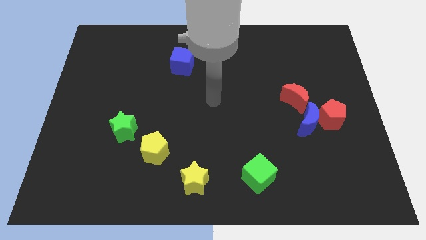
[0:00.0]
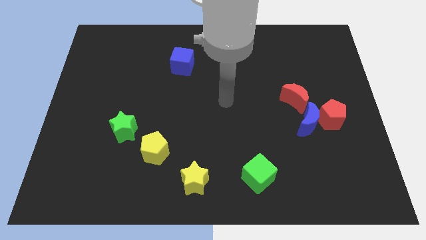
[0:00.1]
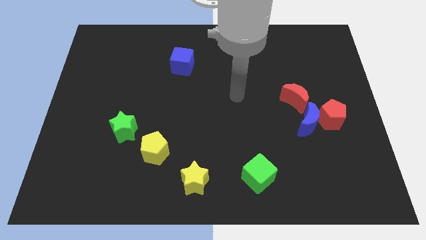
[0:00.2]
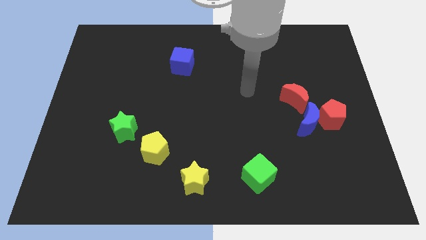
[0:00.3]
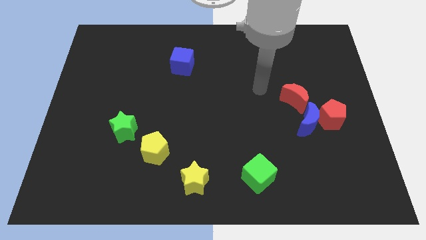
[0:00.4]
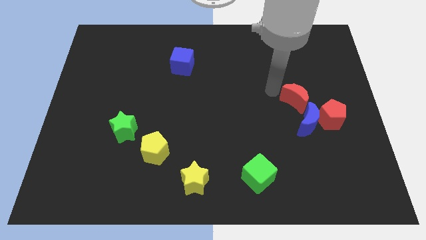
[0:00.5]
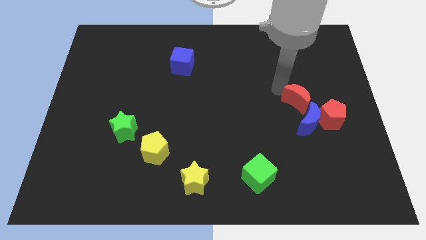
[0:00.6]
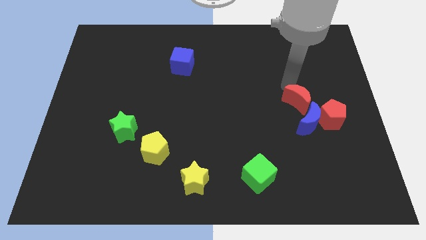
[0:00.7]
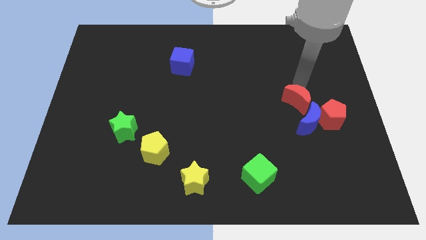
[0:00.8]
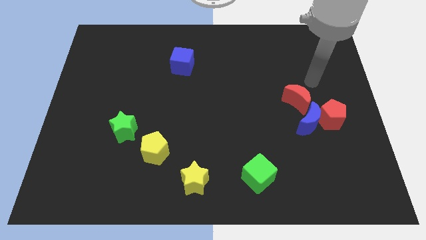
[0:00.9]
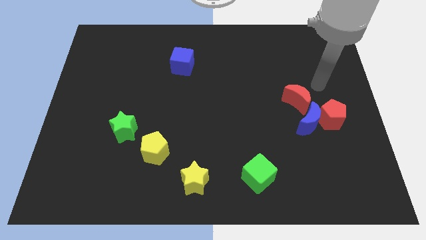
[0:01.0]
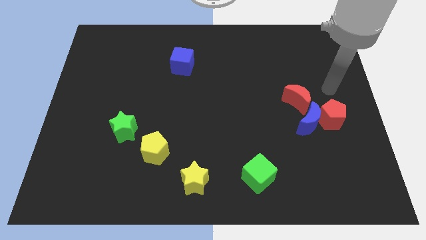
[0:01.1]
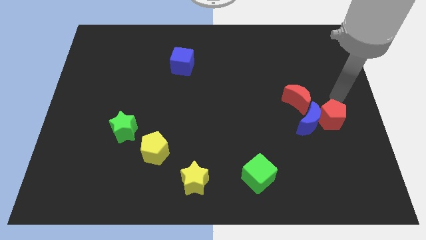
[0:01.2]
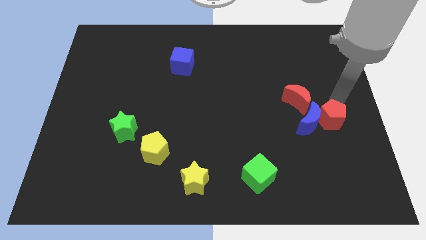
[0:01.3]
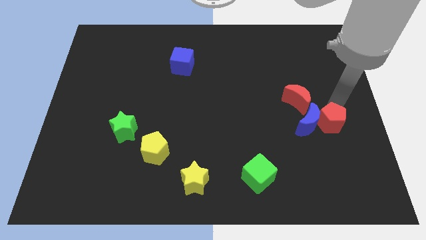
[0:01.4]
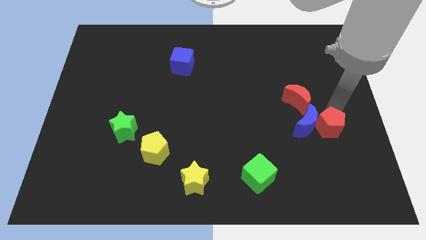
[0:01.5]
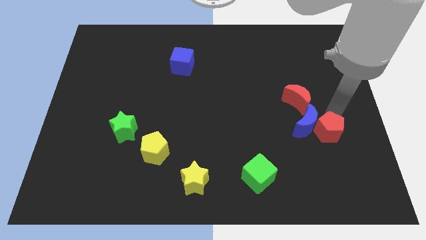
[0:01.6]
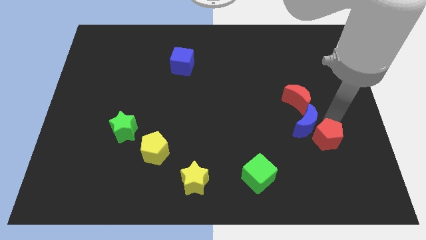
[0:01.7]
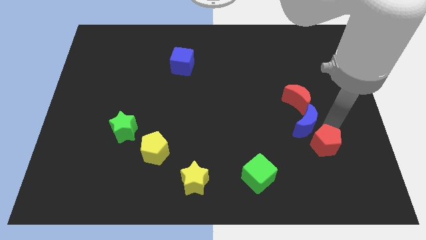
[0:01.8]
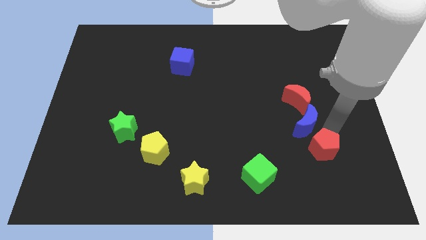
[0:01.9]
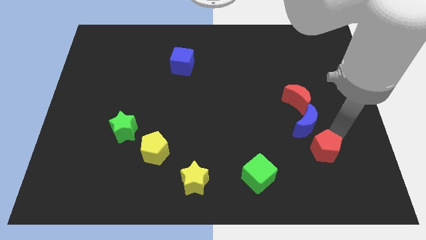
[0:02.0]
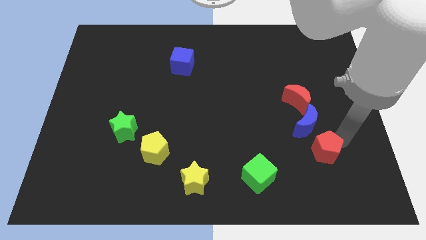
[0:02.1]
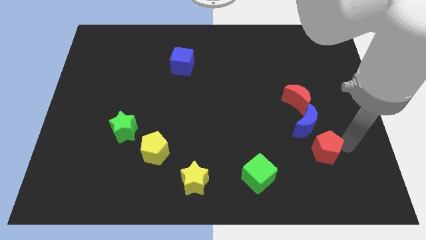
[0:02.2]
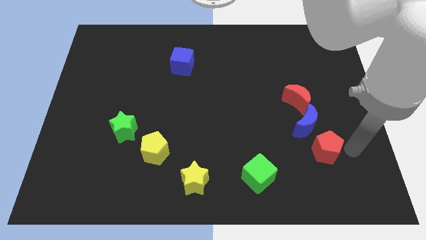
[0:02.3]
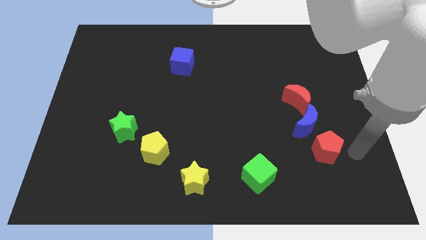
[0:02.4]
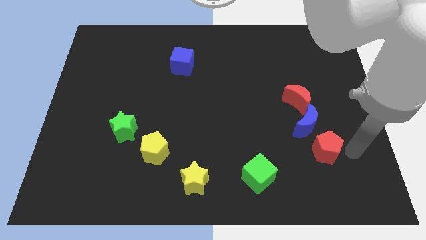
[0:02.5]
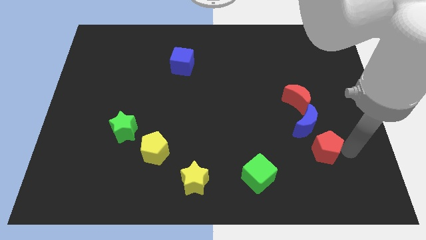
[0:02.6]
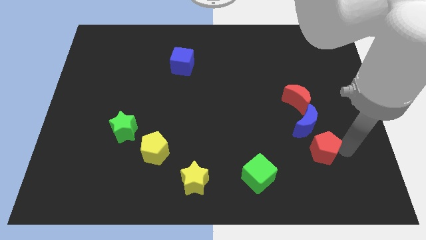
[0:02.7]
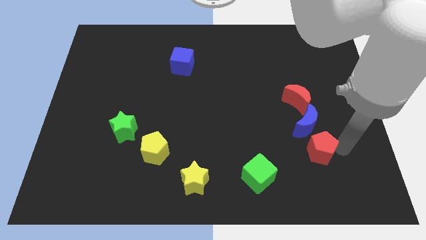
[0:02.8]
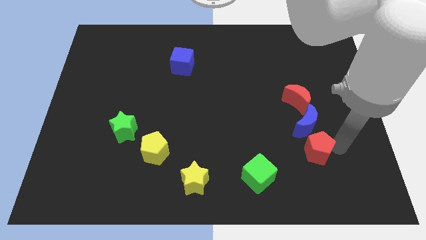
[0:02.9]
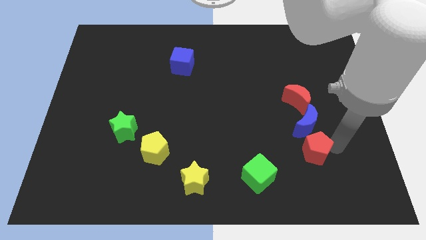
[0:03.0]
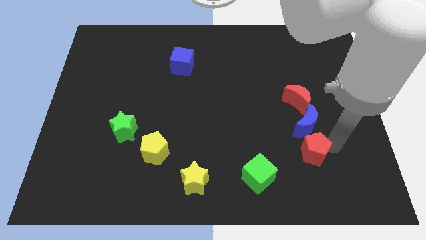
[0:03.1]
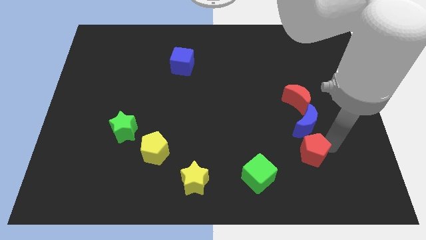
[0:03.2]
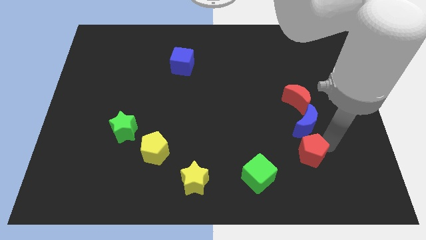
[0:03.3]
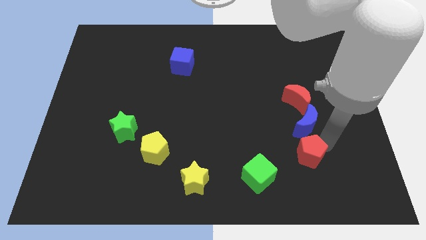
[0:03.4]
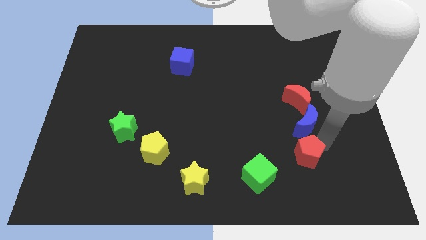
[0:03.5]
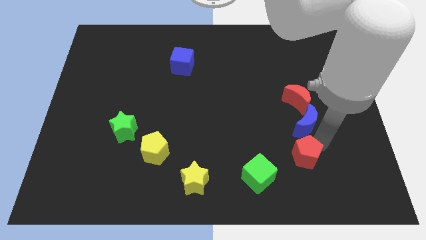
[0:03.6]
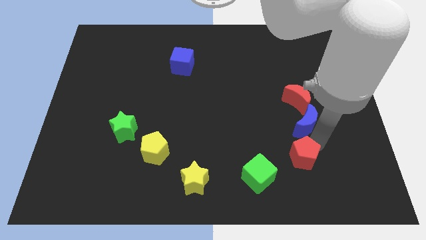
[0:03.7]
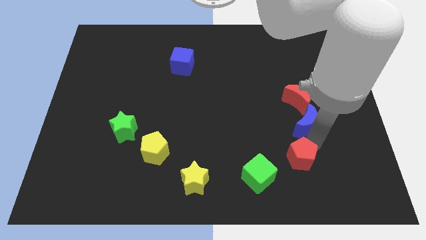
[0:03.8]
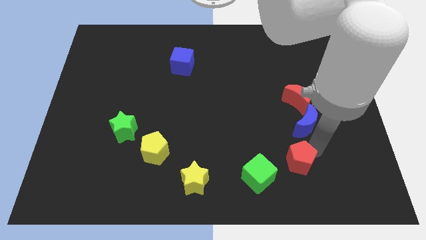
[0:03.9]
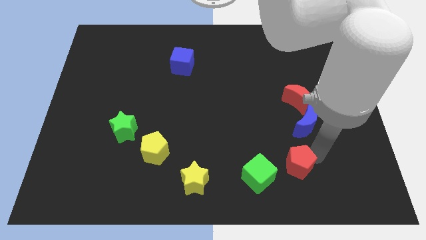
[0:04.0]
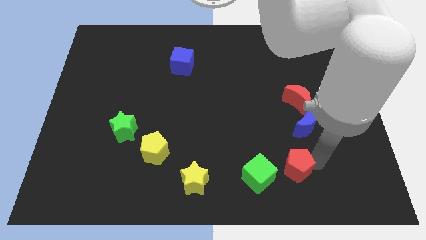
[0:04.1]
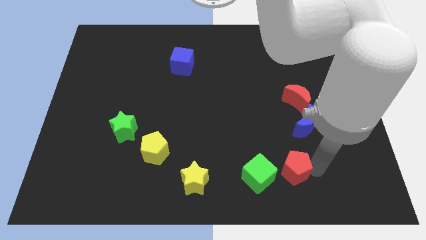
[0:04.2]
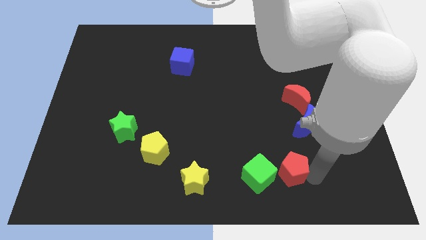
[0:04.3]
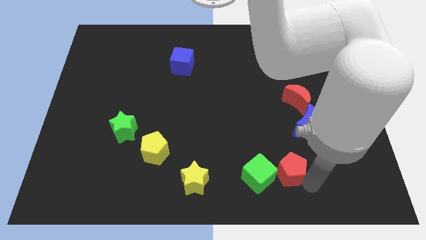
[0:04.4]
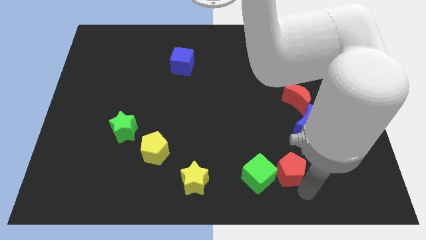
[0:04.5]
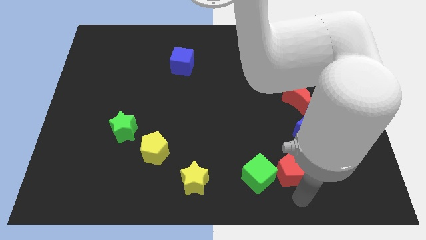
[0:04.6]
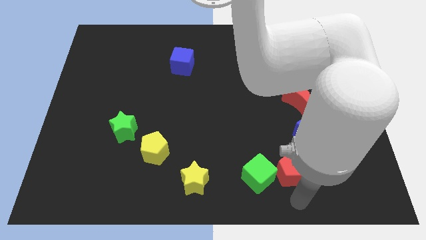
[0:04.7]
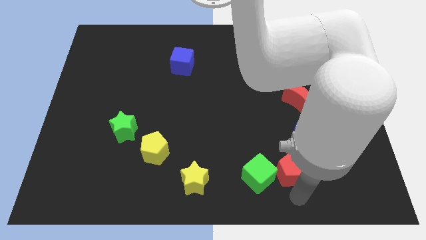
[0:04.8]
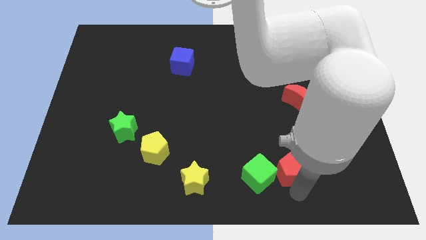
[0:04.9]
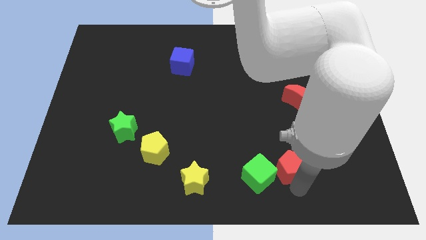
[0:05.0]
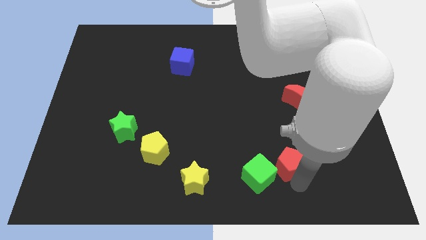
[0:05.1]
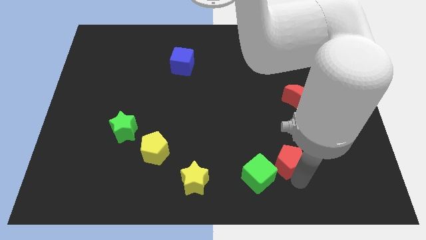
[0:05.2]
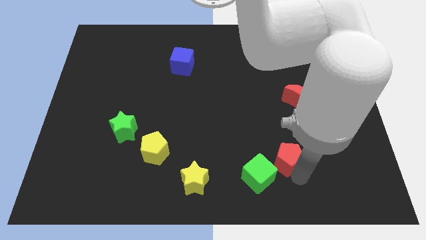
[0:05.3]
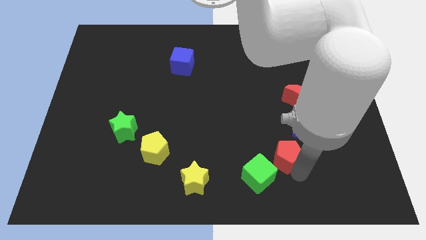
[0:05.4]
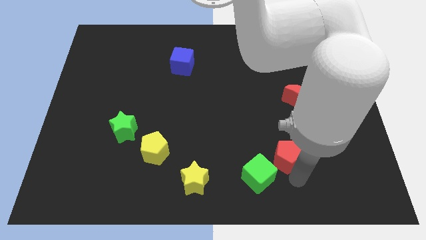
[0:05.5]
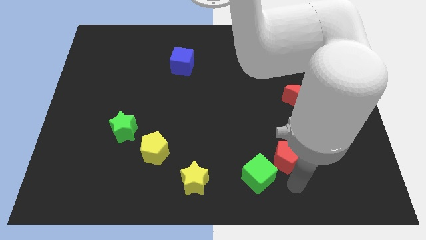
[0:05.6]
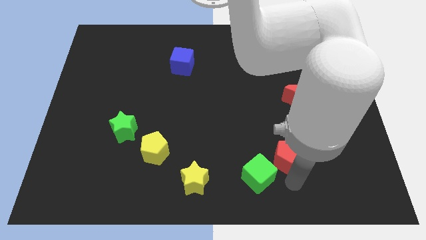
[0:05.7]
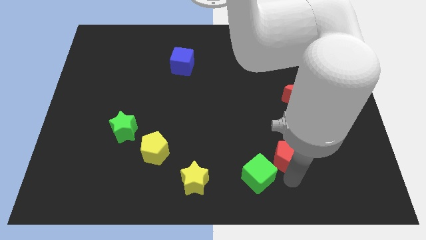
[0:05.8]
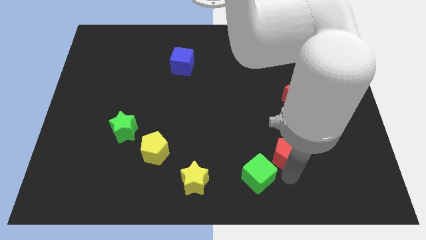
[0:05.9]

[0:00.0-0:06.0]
slide the red pentagon left a little bit

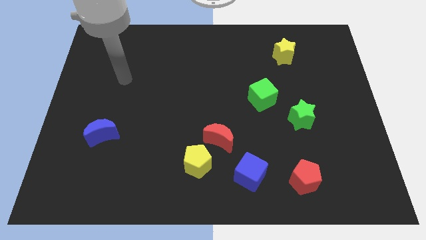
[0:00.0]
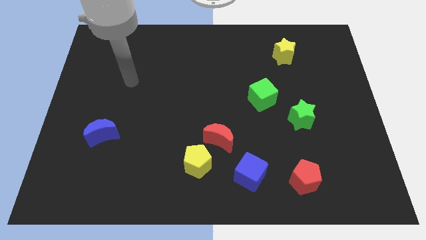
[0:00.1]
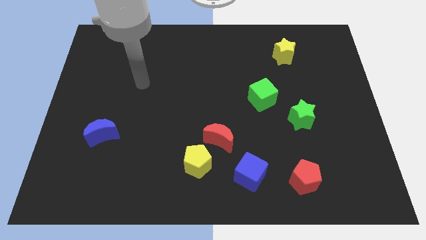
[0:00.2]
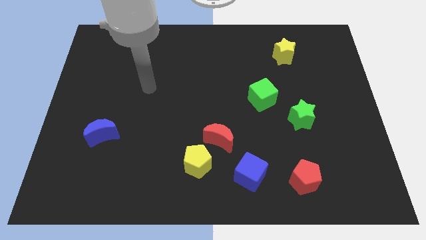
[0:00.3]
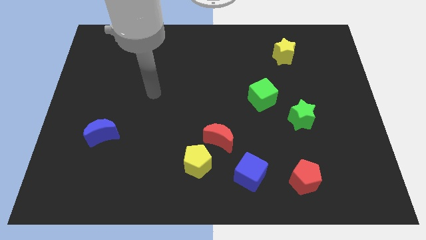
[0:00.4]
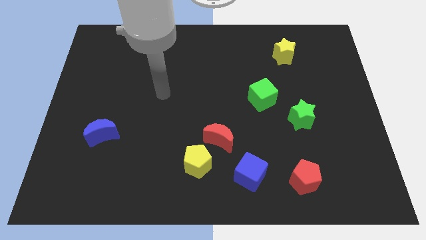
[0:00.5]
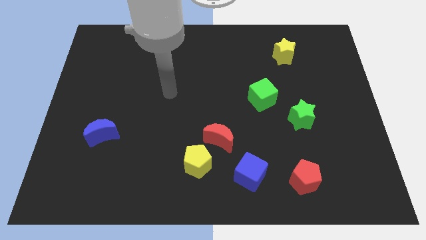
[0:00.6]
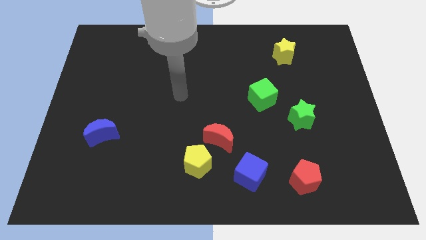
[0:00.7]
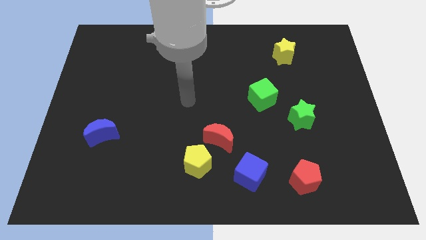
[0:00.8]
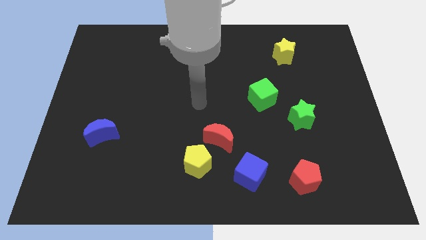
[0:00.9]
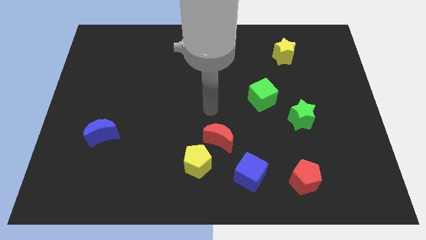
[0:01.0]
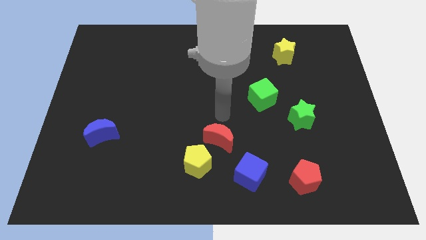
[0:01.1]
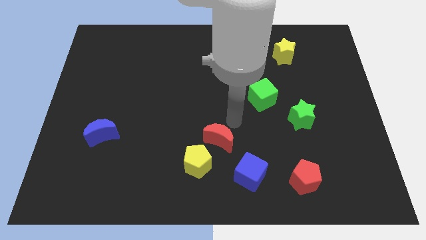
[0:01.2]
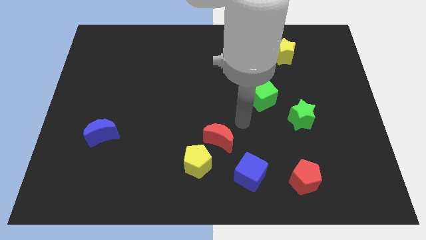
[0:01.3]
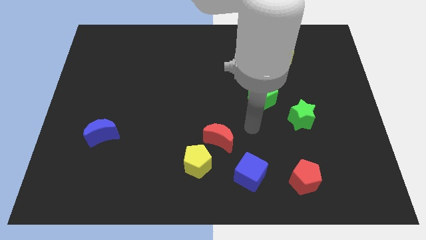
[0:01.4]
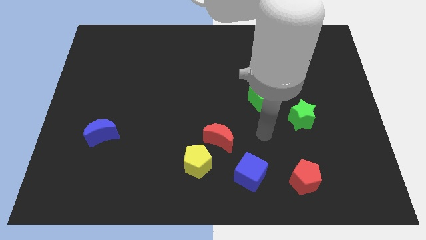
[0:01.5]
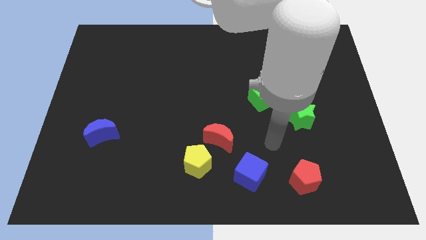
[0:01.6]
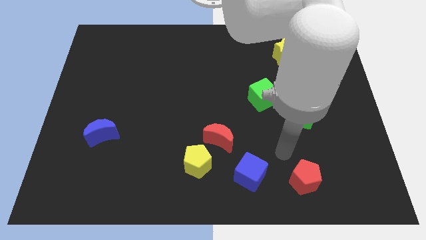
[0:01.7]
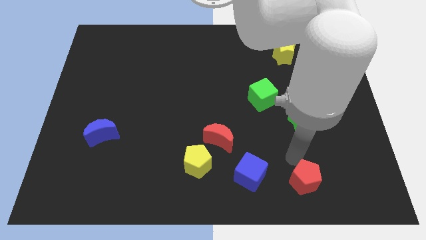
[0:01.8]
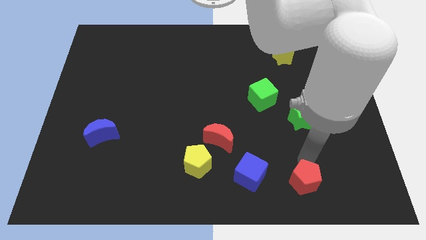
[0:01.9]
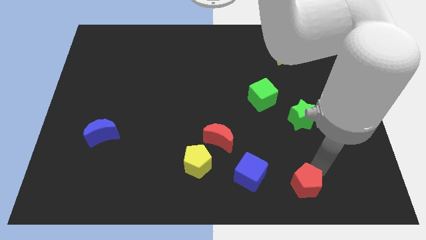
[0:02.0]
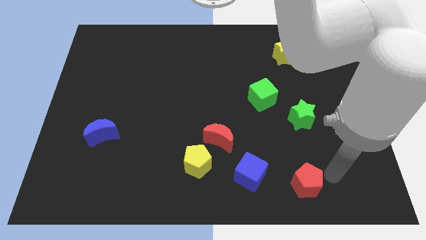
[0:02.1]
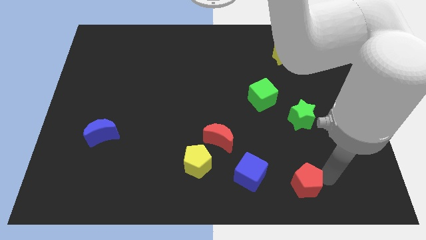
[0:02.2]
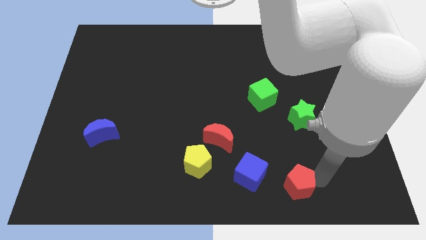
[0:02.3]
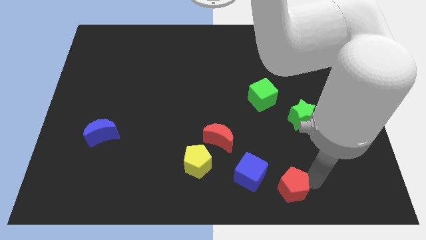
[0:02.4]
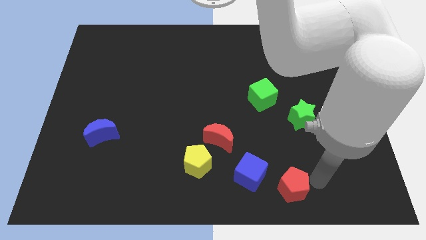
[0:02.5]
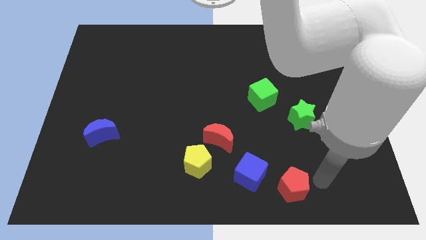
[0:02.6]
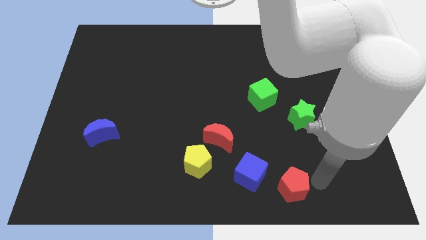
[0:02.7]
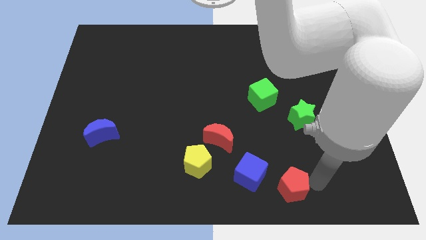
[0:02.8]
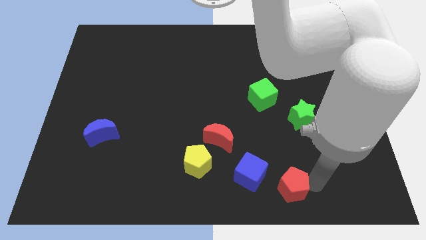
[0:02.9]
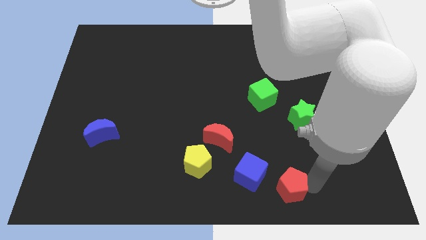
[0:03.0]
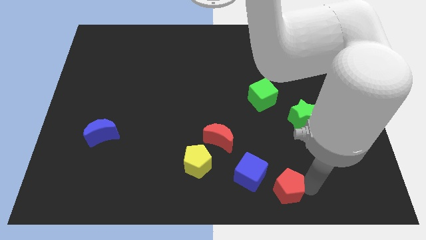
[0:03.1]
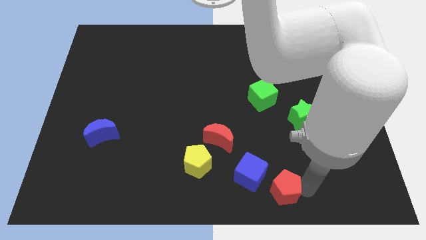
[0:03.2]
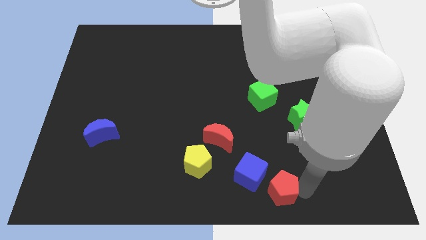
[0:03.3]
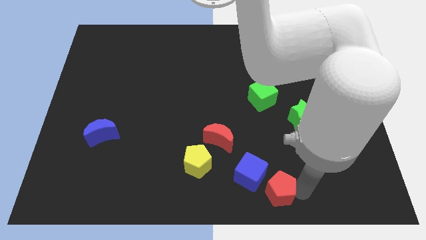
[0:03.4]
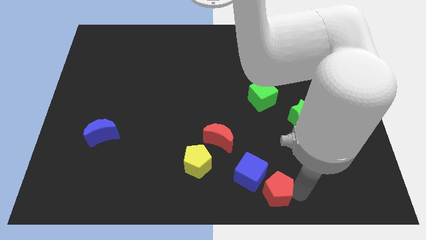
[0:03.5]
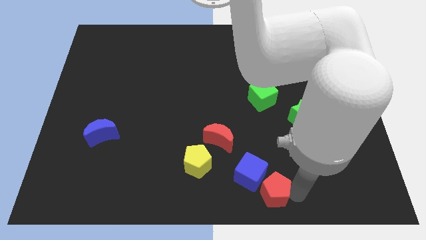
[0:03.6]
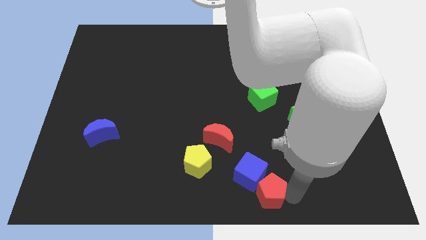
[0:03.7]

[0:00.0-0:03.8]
slightly move the red pentagon left
